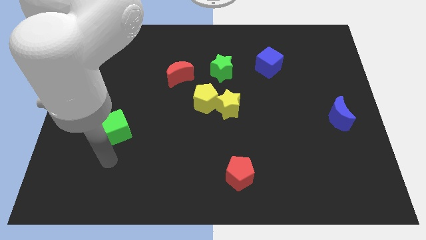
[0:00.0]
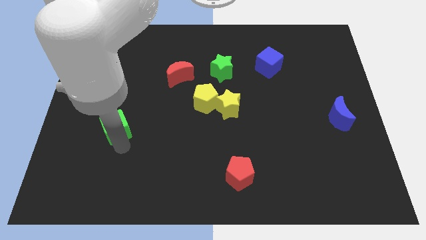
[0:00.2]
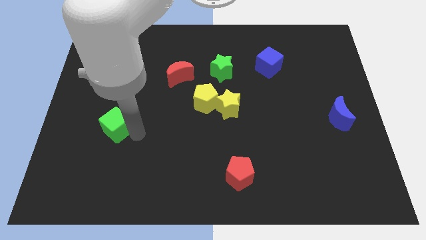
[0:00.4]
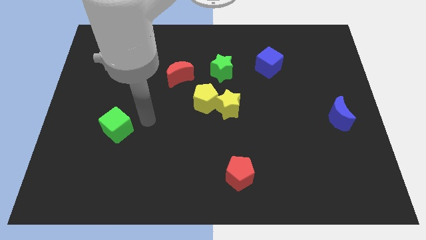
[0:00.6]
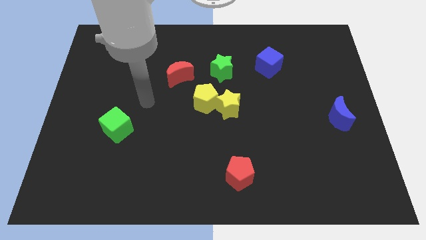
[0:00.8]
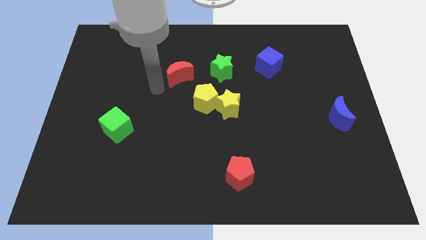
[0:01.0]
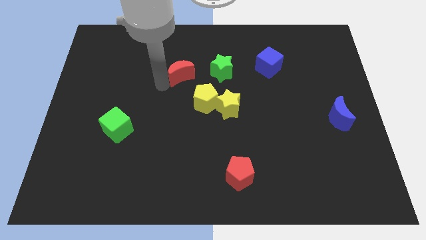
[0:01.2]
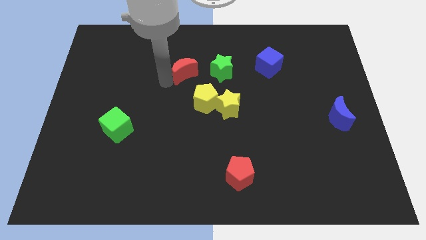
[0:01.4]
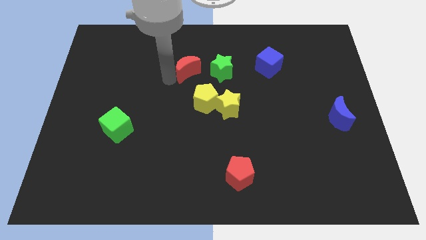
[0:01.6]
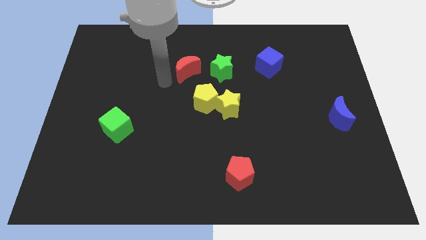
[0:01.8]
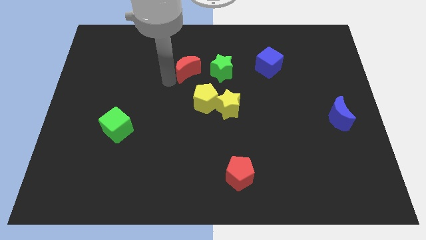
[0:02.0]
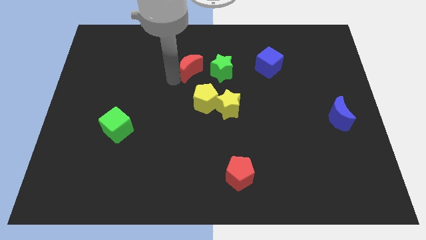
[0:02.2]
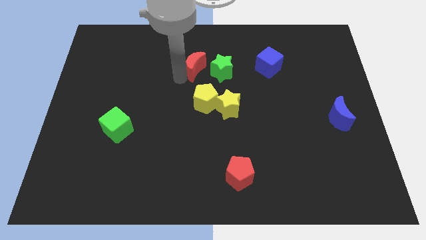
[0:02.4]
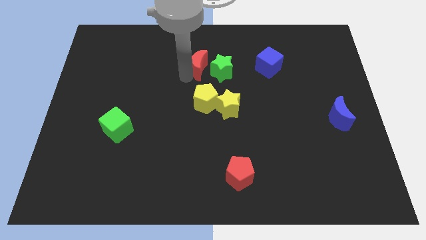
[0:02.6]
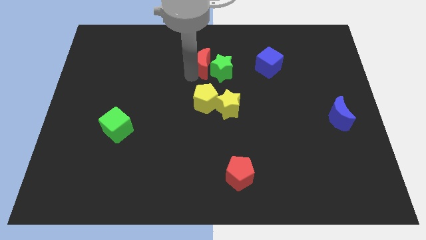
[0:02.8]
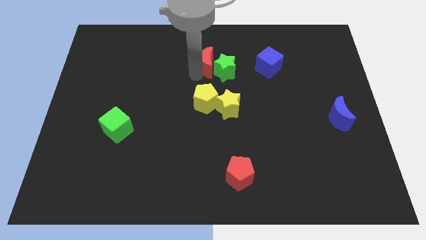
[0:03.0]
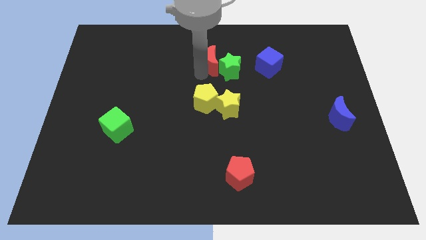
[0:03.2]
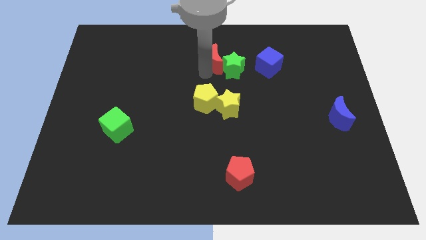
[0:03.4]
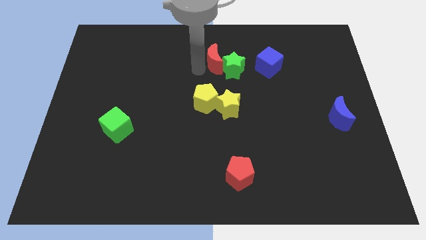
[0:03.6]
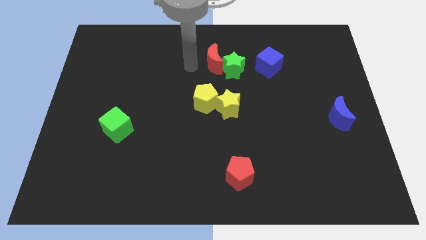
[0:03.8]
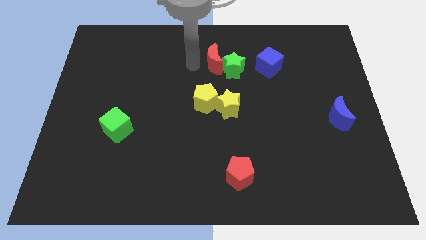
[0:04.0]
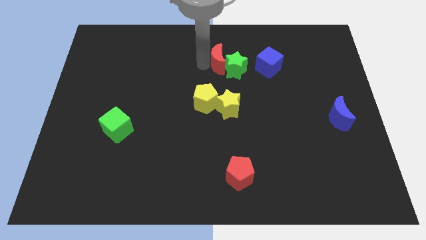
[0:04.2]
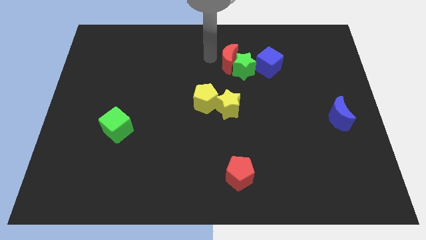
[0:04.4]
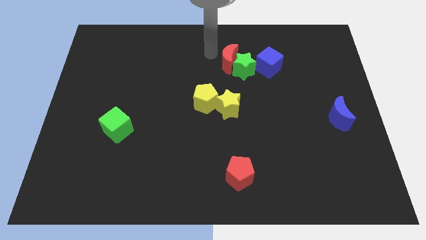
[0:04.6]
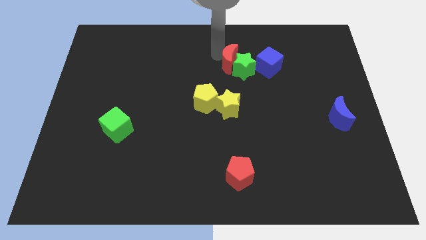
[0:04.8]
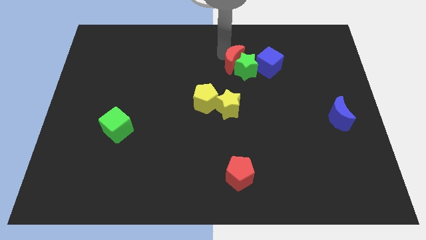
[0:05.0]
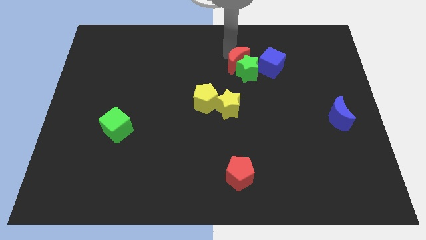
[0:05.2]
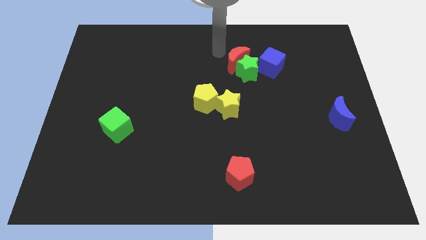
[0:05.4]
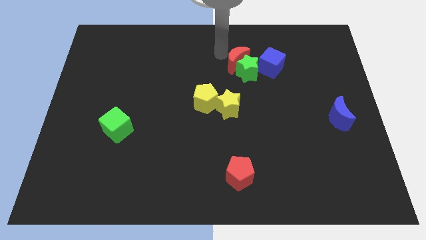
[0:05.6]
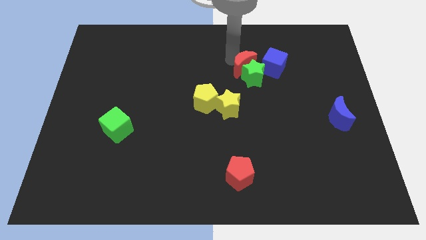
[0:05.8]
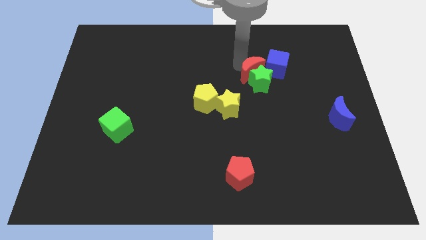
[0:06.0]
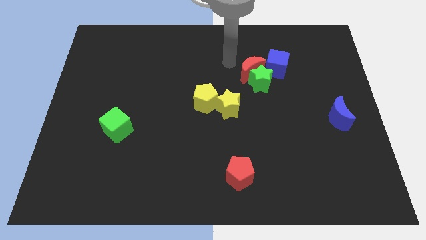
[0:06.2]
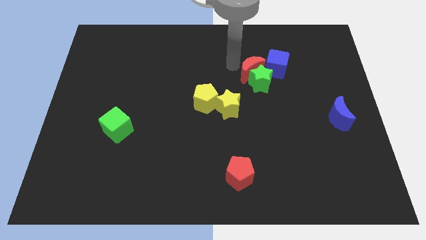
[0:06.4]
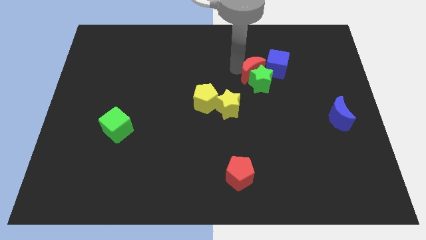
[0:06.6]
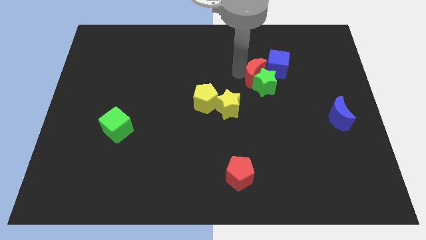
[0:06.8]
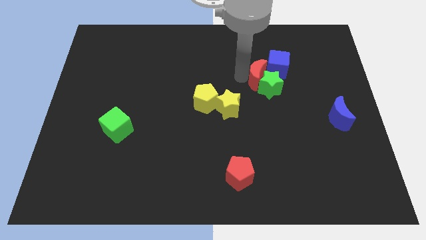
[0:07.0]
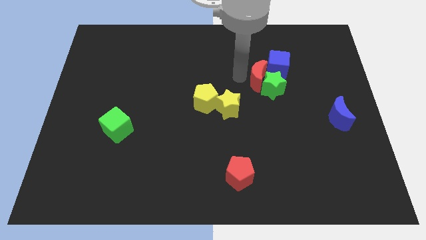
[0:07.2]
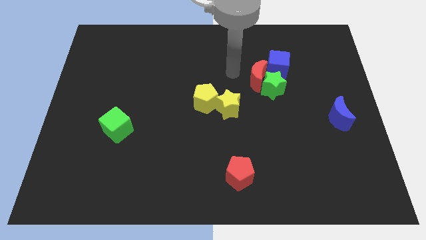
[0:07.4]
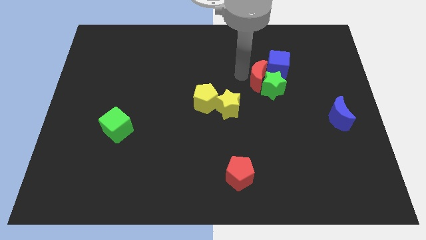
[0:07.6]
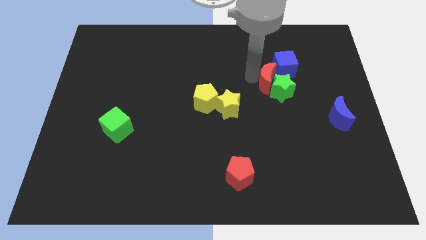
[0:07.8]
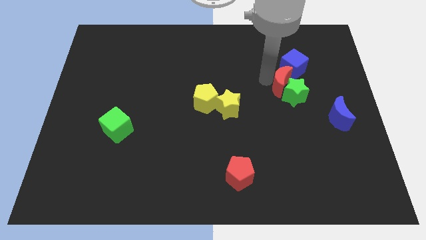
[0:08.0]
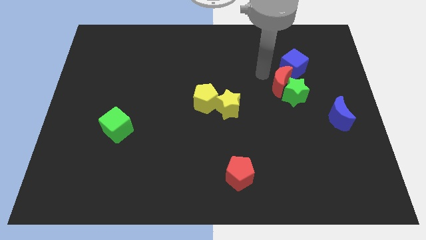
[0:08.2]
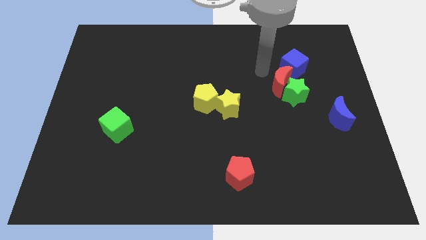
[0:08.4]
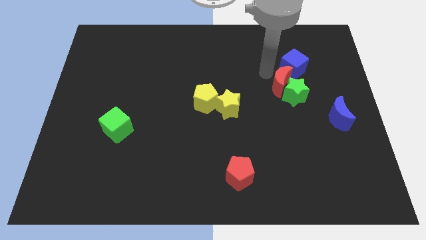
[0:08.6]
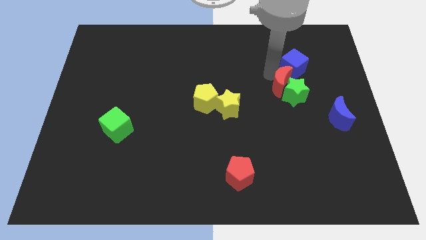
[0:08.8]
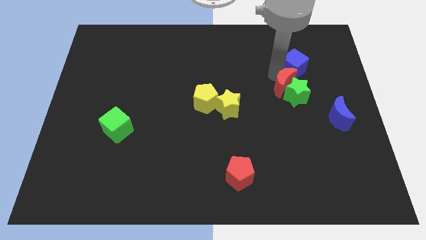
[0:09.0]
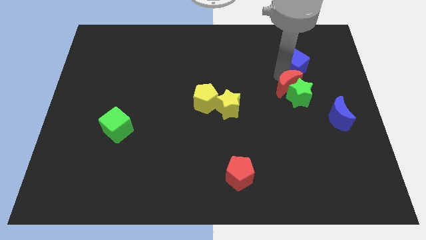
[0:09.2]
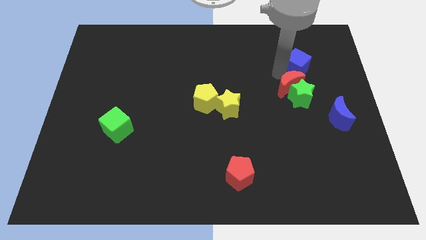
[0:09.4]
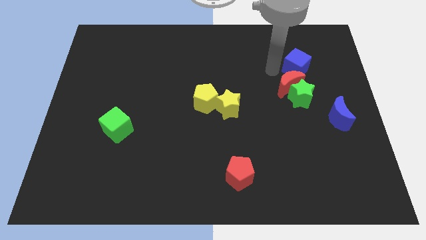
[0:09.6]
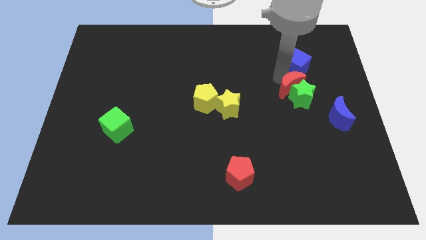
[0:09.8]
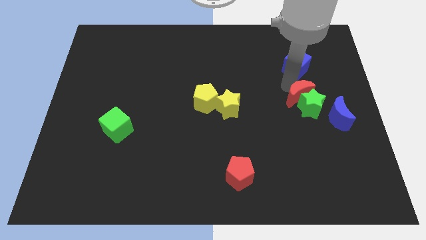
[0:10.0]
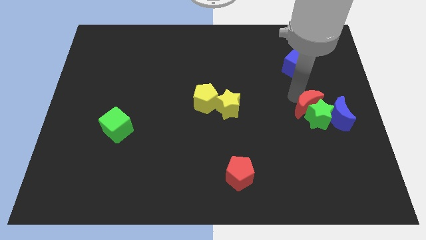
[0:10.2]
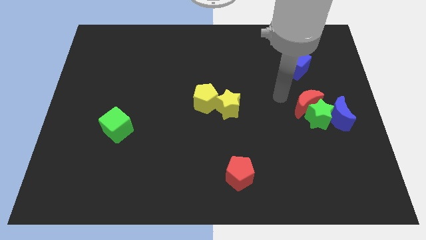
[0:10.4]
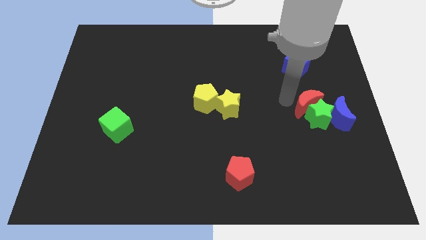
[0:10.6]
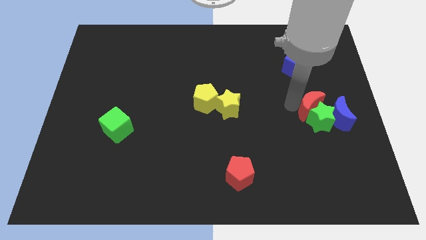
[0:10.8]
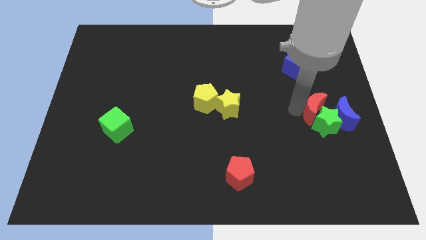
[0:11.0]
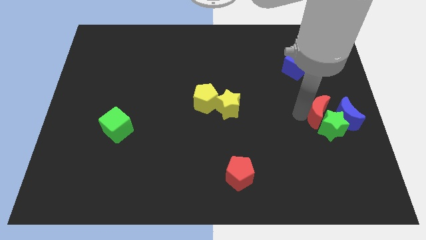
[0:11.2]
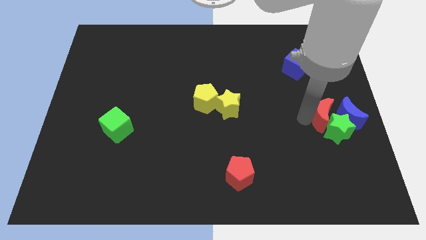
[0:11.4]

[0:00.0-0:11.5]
push the red moon to the blue moon

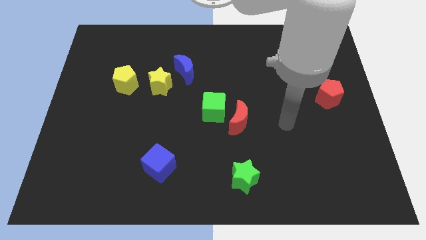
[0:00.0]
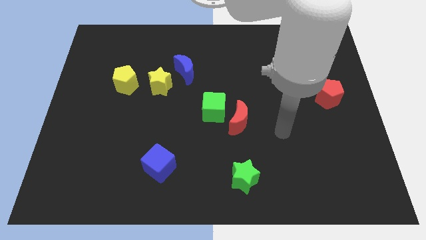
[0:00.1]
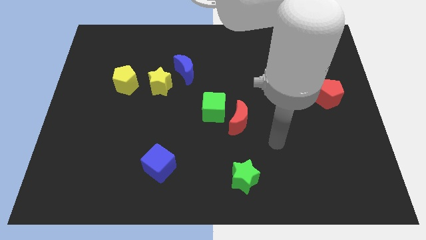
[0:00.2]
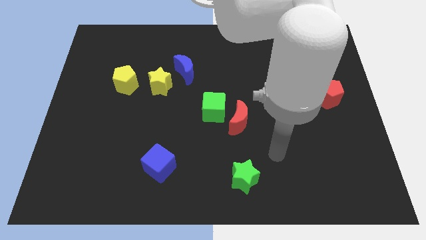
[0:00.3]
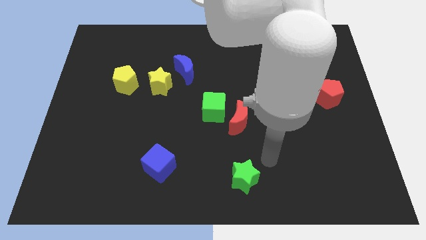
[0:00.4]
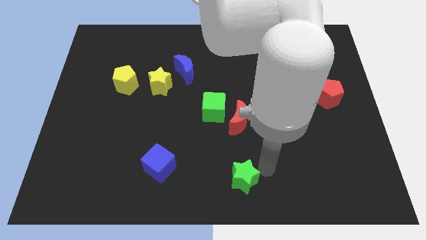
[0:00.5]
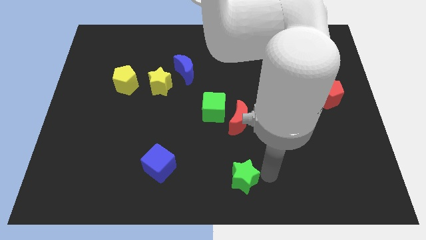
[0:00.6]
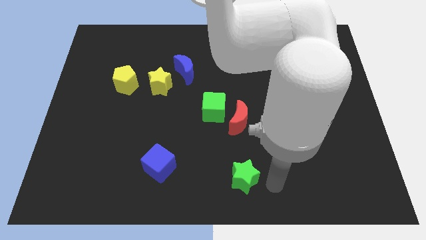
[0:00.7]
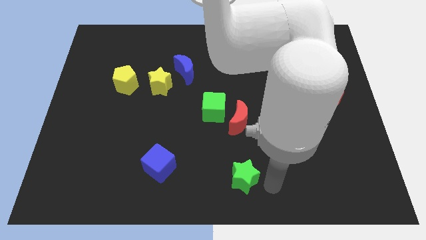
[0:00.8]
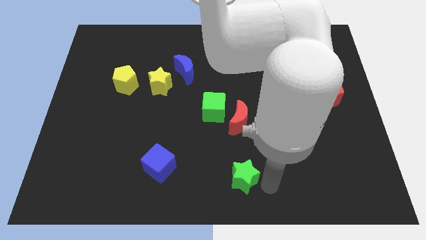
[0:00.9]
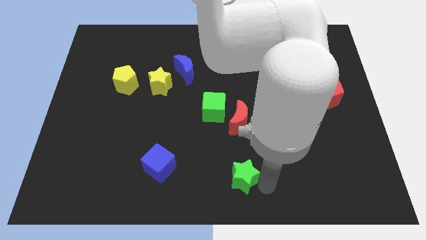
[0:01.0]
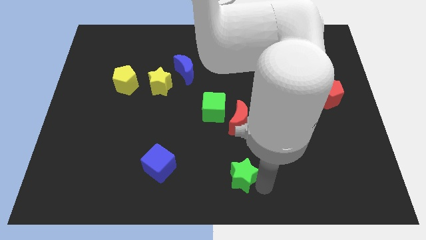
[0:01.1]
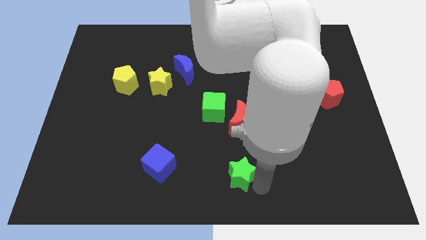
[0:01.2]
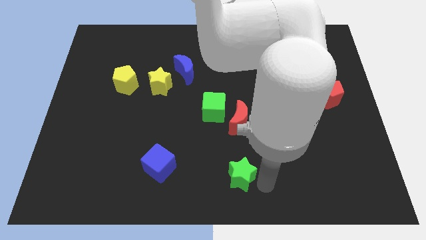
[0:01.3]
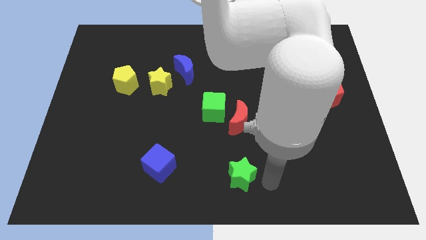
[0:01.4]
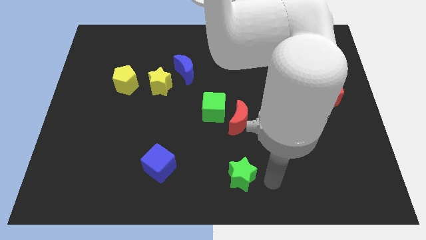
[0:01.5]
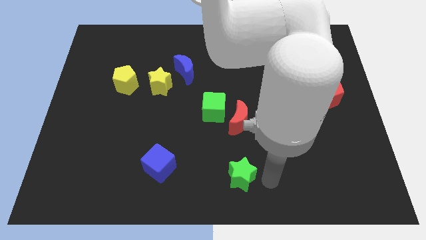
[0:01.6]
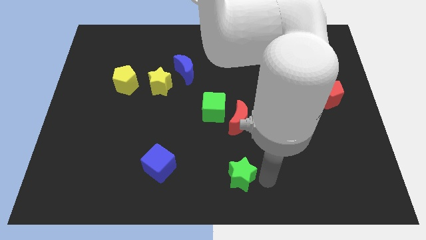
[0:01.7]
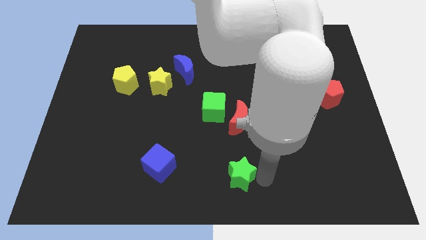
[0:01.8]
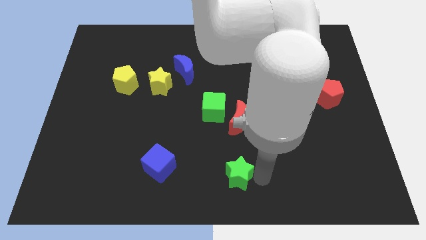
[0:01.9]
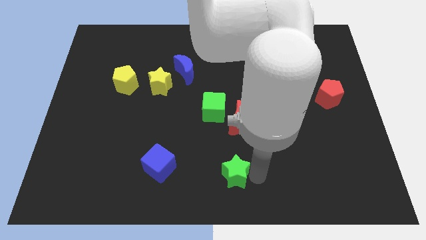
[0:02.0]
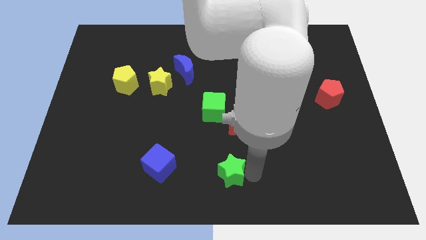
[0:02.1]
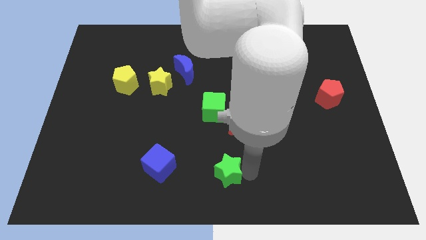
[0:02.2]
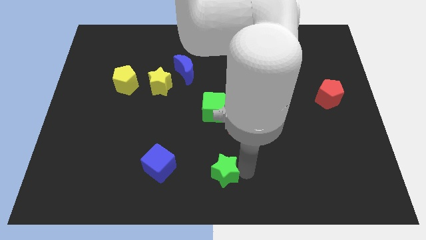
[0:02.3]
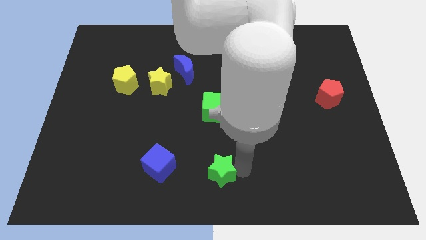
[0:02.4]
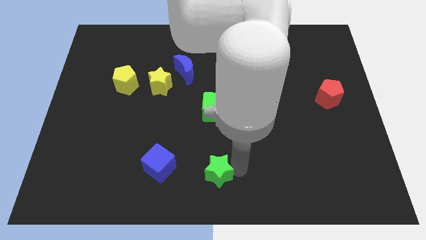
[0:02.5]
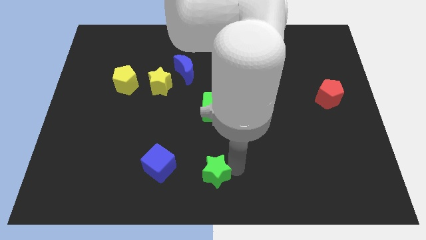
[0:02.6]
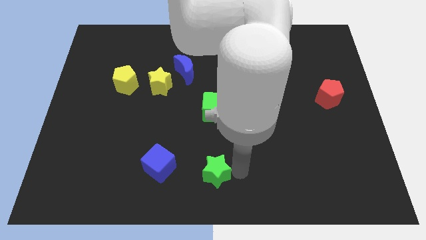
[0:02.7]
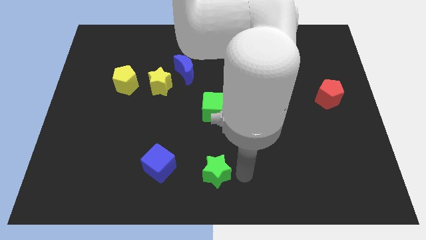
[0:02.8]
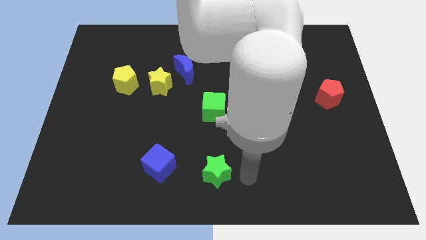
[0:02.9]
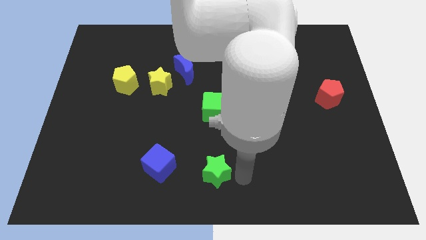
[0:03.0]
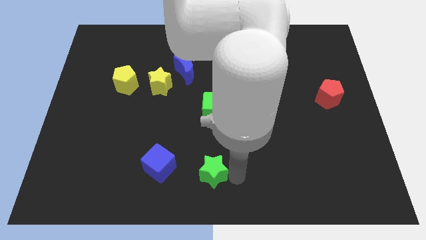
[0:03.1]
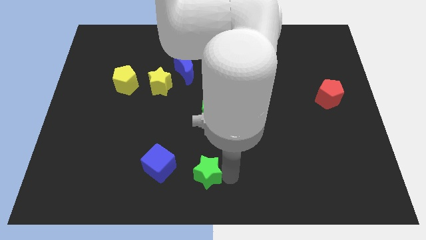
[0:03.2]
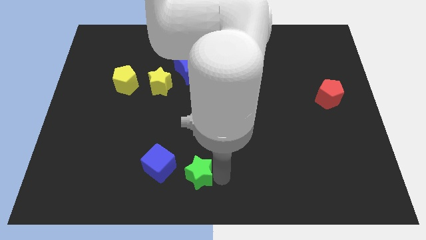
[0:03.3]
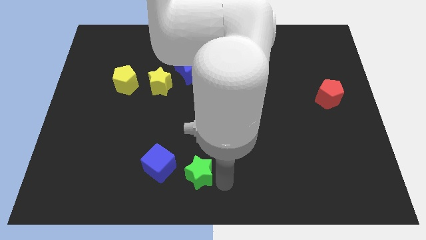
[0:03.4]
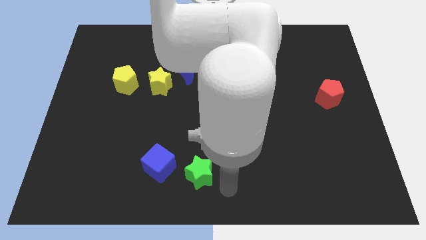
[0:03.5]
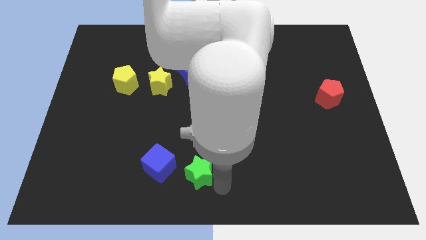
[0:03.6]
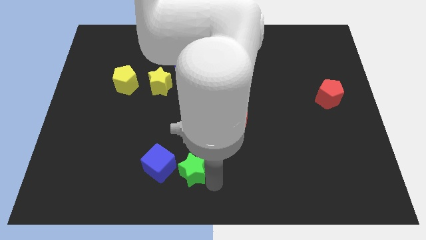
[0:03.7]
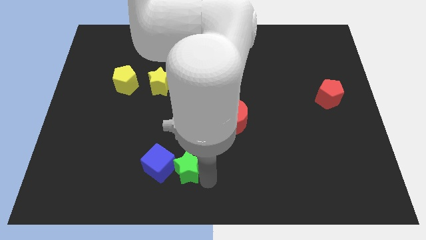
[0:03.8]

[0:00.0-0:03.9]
put the green star next to the blue cube
